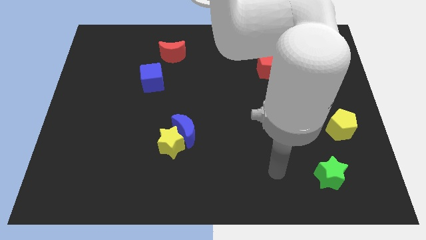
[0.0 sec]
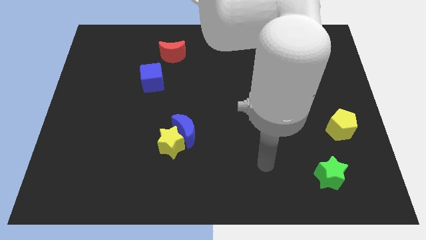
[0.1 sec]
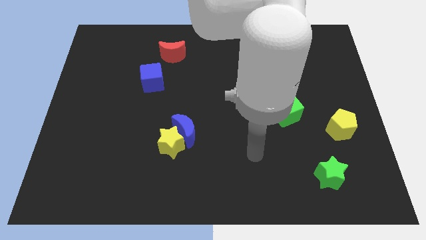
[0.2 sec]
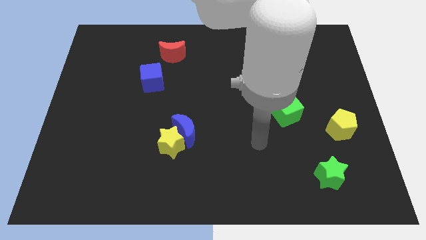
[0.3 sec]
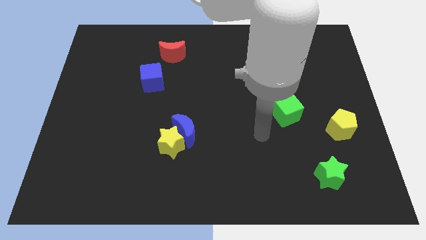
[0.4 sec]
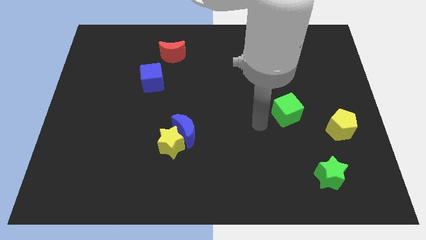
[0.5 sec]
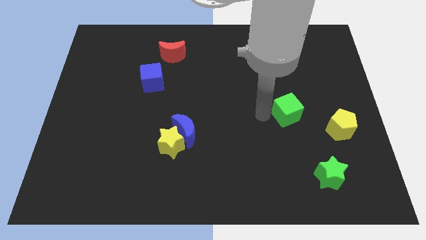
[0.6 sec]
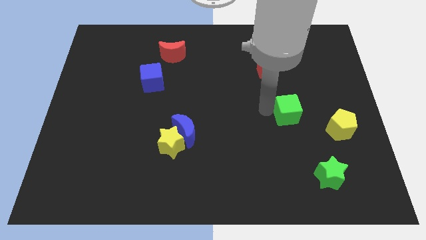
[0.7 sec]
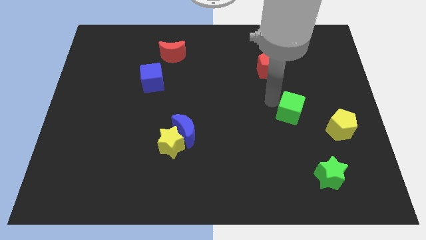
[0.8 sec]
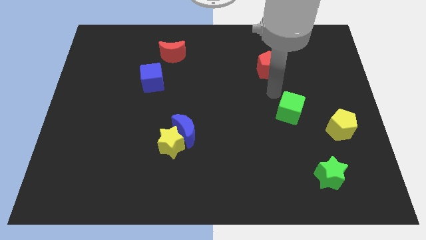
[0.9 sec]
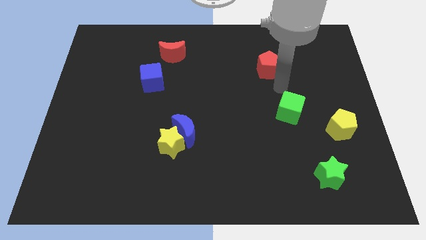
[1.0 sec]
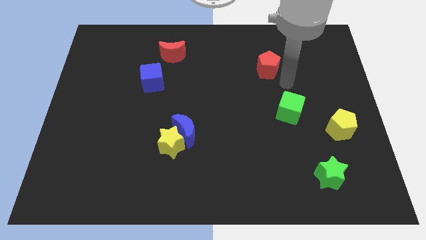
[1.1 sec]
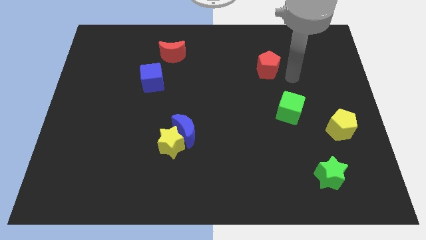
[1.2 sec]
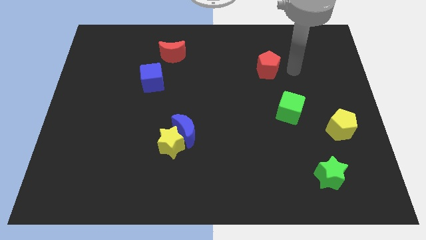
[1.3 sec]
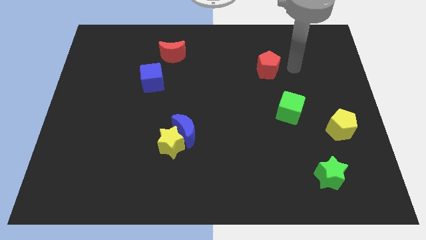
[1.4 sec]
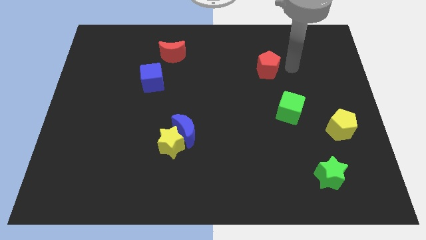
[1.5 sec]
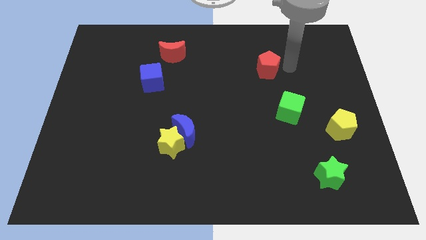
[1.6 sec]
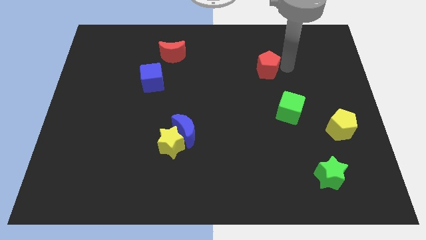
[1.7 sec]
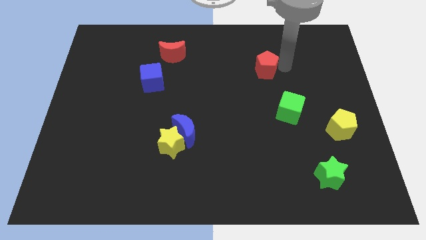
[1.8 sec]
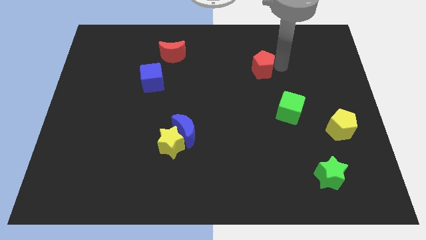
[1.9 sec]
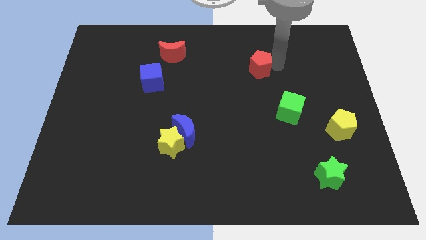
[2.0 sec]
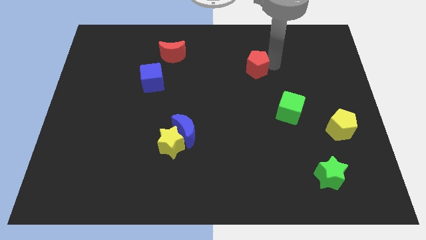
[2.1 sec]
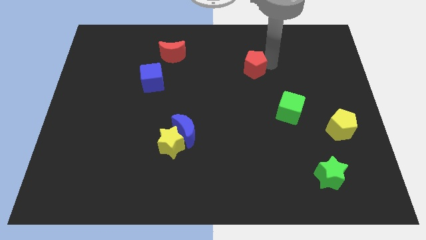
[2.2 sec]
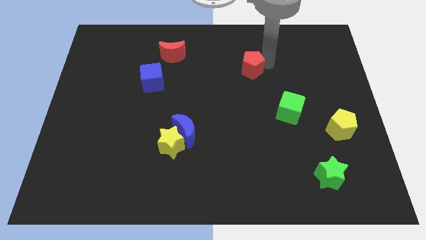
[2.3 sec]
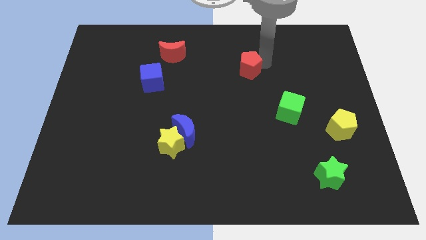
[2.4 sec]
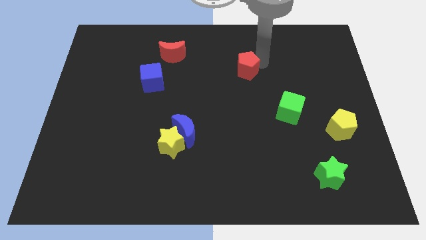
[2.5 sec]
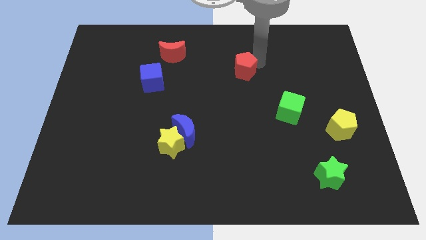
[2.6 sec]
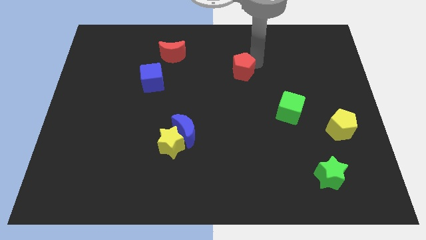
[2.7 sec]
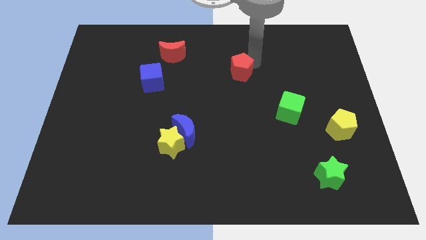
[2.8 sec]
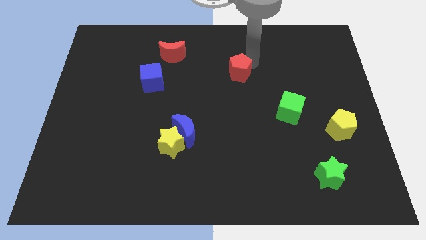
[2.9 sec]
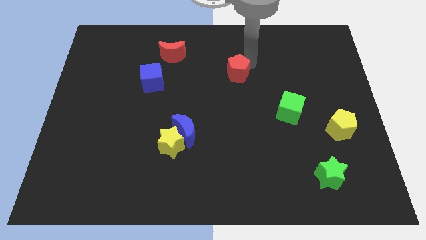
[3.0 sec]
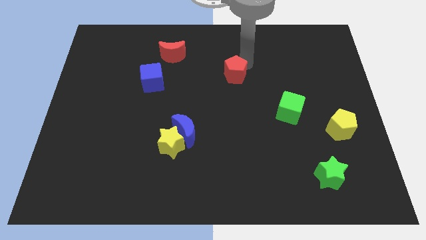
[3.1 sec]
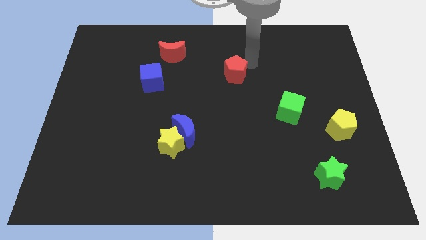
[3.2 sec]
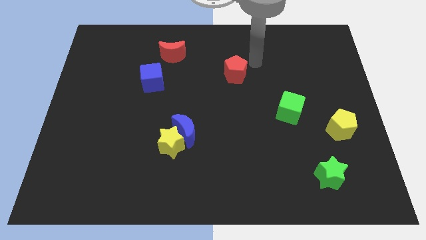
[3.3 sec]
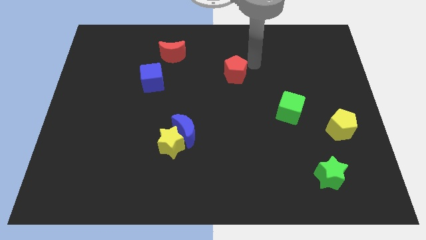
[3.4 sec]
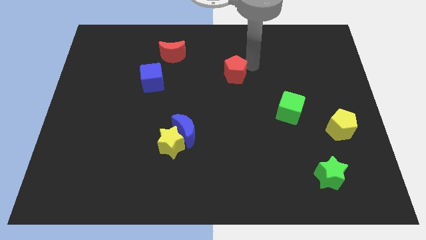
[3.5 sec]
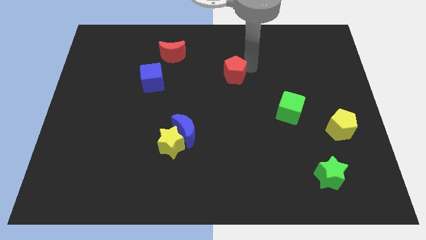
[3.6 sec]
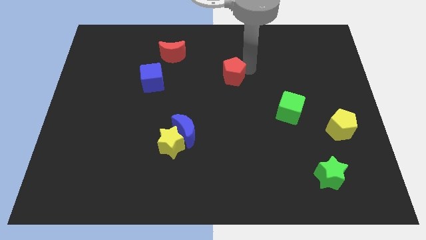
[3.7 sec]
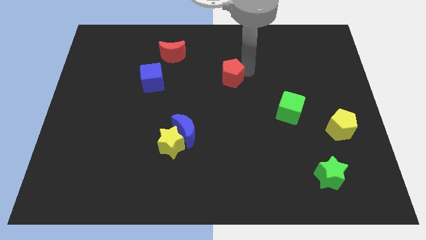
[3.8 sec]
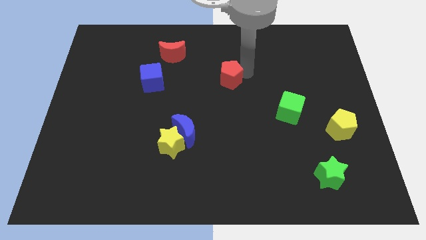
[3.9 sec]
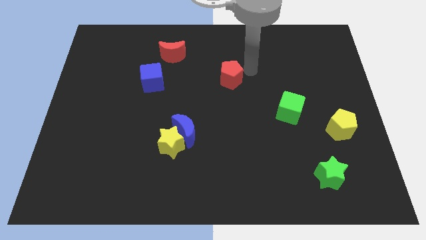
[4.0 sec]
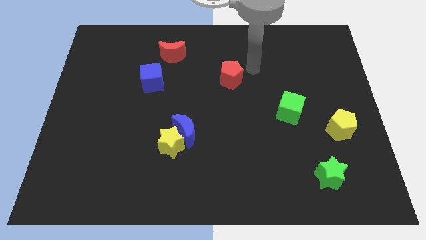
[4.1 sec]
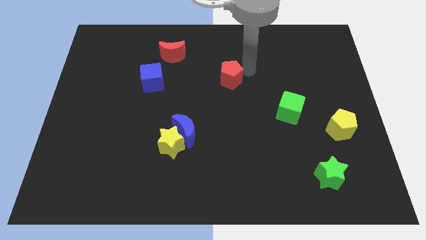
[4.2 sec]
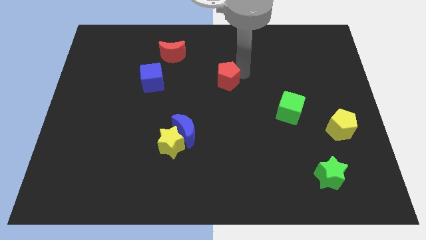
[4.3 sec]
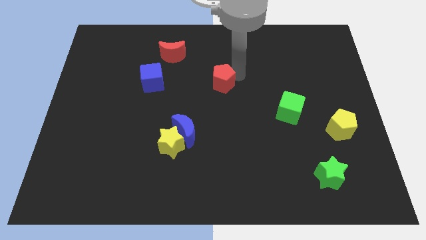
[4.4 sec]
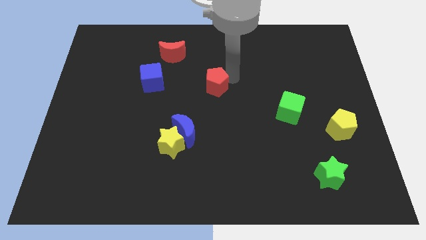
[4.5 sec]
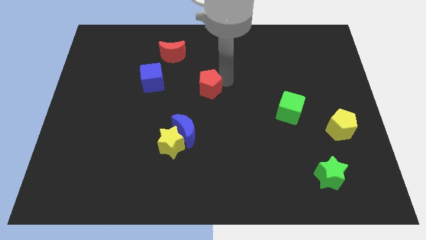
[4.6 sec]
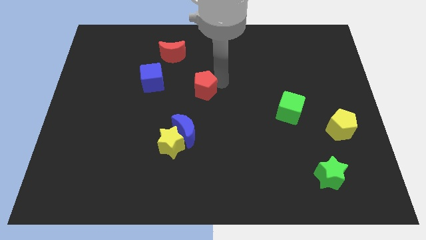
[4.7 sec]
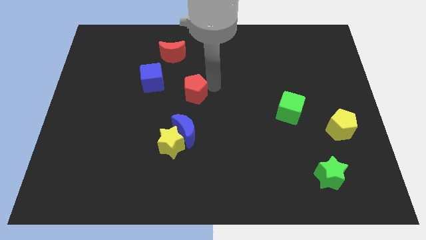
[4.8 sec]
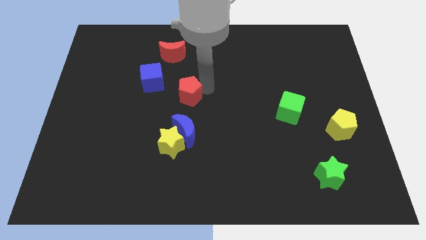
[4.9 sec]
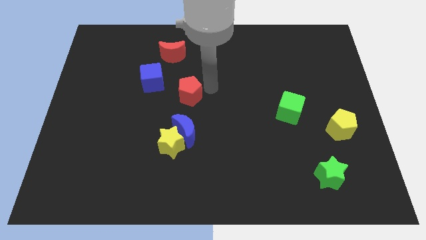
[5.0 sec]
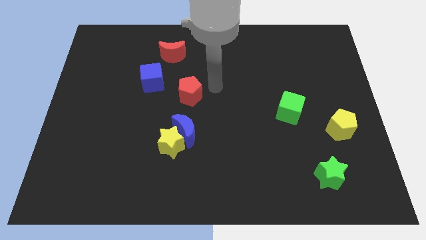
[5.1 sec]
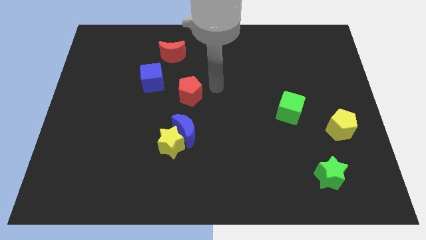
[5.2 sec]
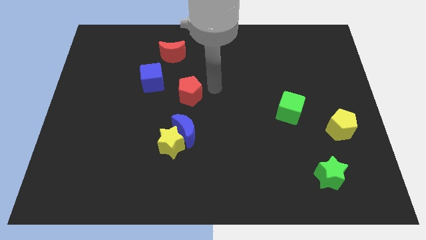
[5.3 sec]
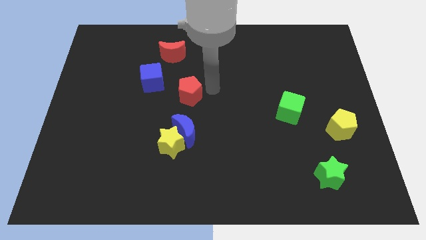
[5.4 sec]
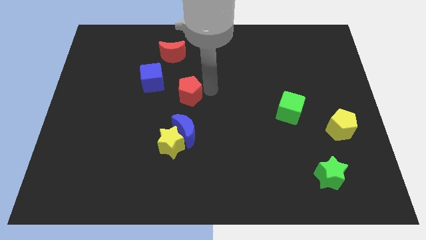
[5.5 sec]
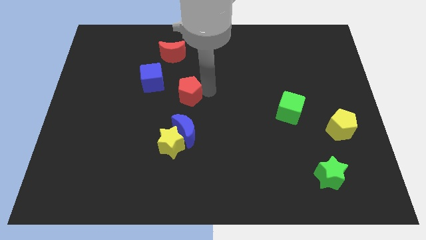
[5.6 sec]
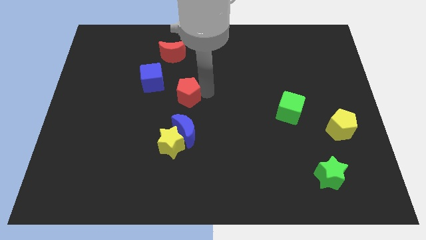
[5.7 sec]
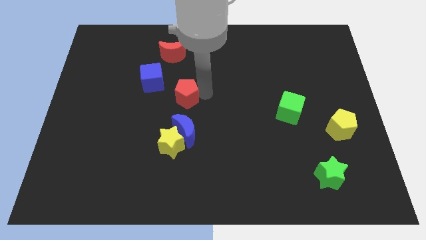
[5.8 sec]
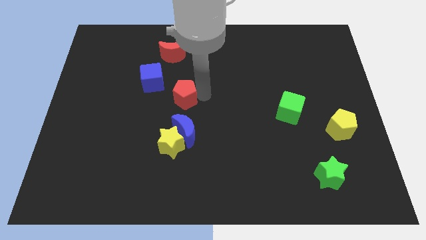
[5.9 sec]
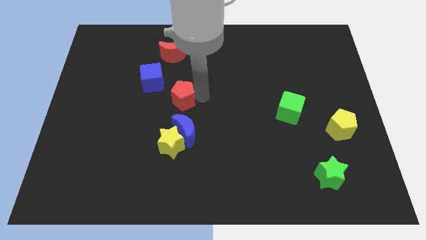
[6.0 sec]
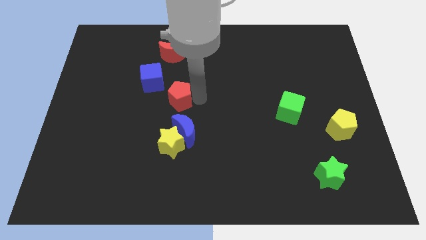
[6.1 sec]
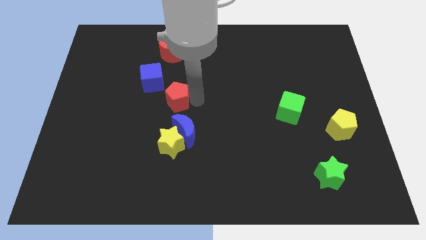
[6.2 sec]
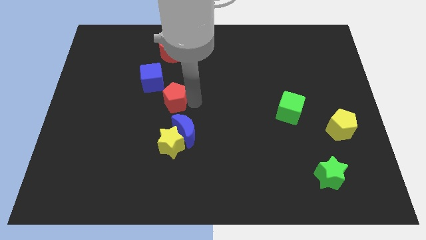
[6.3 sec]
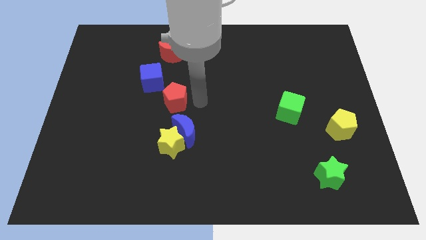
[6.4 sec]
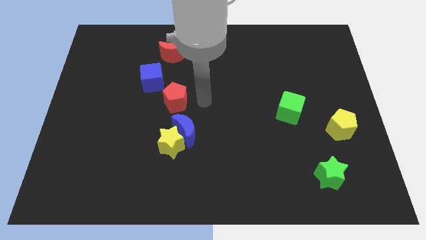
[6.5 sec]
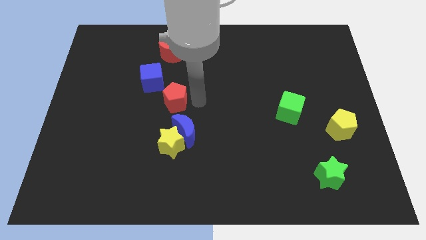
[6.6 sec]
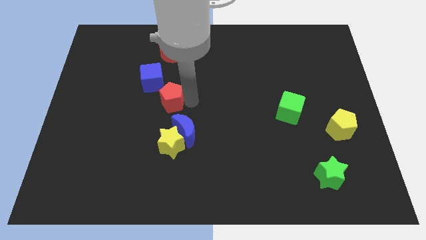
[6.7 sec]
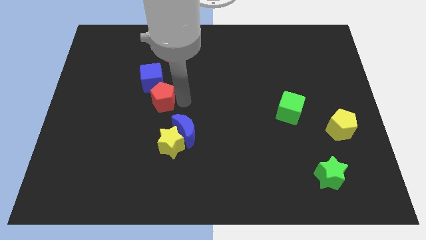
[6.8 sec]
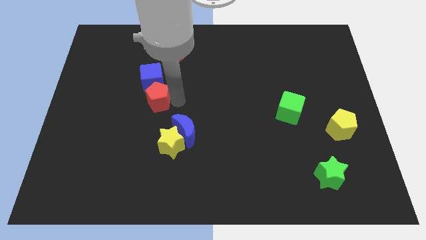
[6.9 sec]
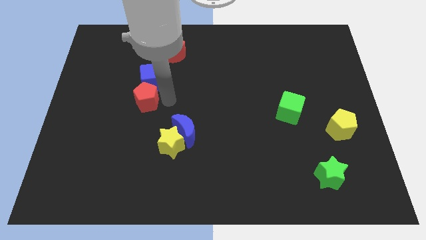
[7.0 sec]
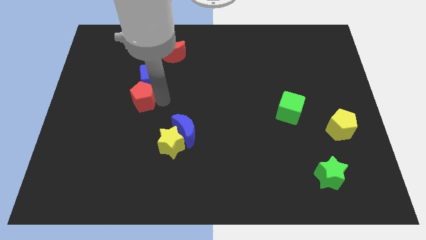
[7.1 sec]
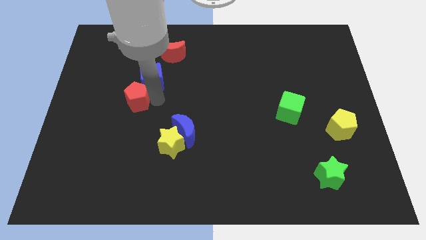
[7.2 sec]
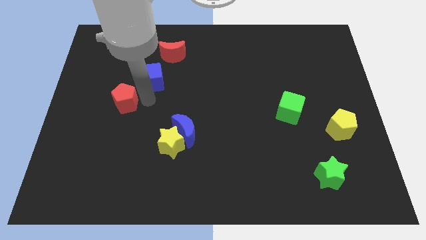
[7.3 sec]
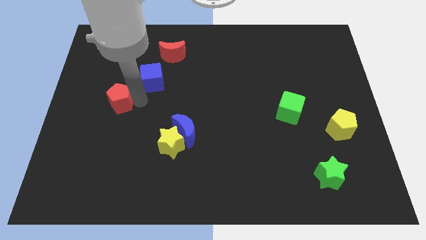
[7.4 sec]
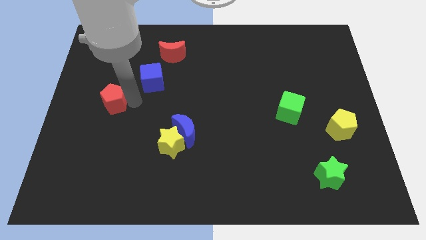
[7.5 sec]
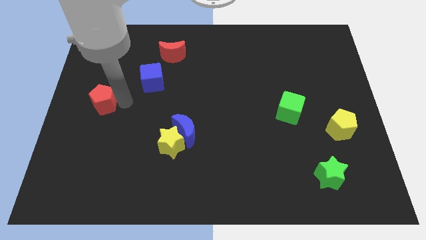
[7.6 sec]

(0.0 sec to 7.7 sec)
put the red pentagon to the center left
